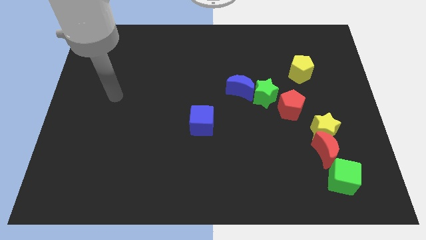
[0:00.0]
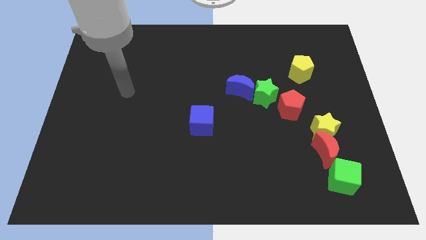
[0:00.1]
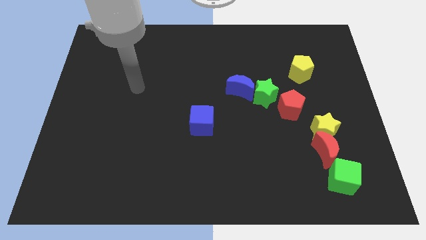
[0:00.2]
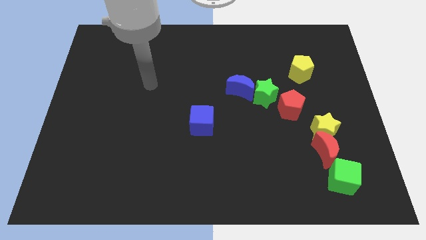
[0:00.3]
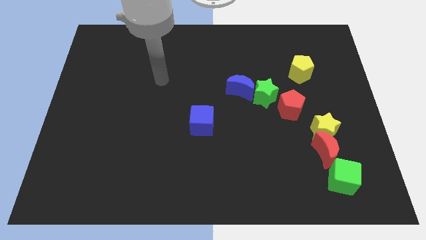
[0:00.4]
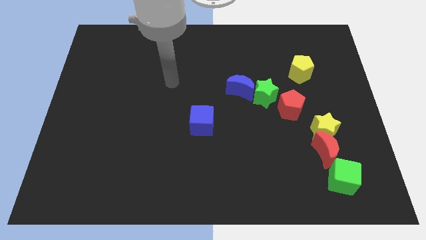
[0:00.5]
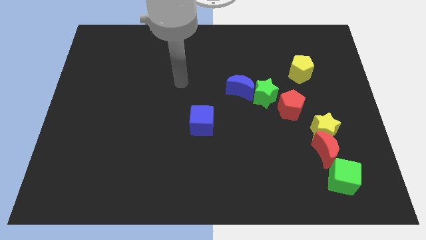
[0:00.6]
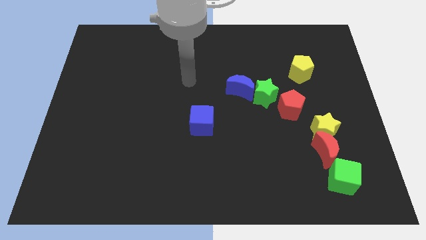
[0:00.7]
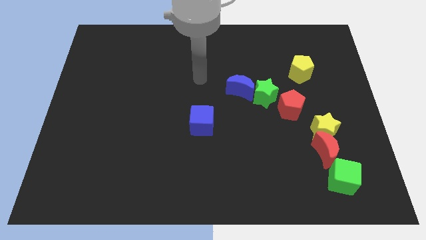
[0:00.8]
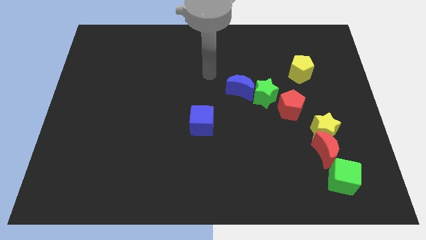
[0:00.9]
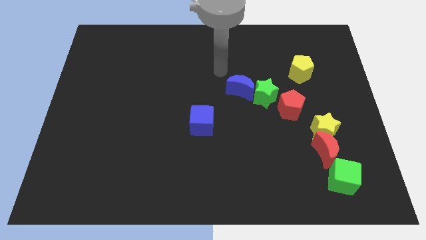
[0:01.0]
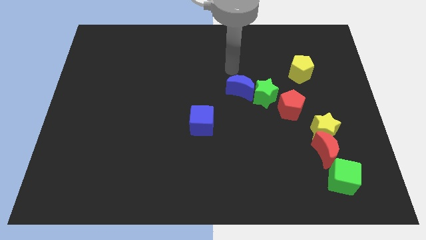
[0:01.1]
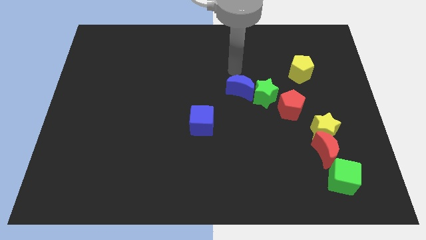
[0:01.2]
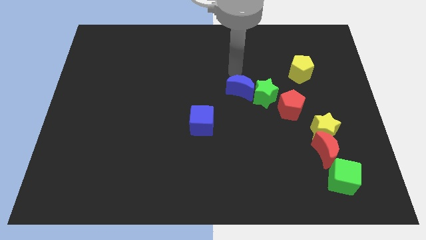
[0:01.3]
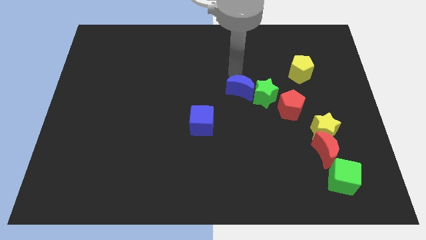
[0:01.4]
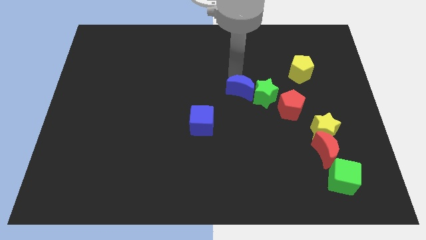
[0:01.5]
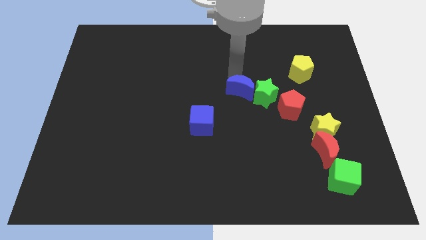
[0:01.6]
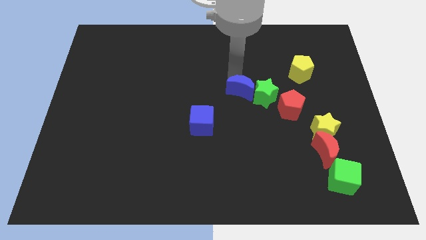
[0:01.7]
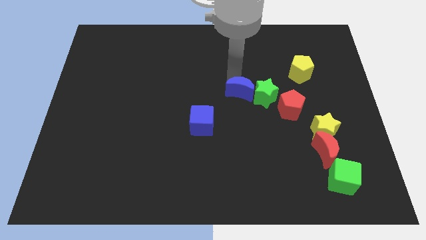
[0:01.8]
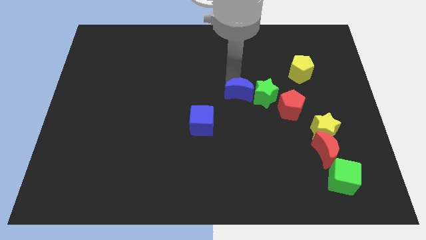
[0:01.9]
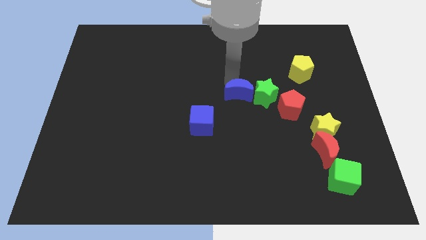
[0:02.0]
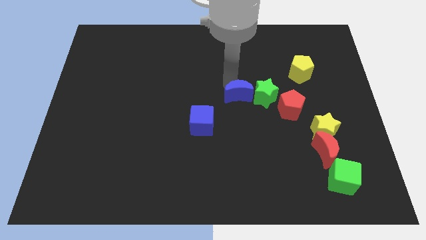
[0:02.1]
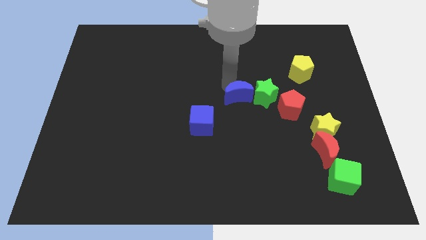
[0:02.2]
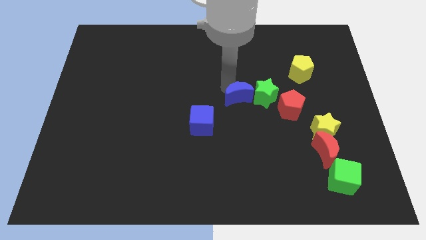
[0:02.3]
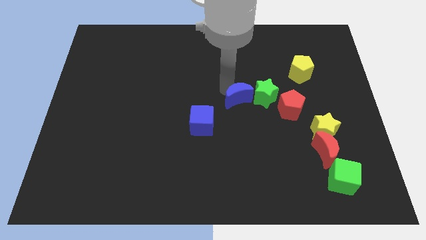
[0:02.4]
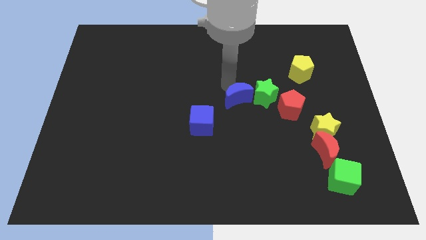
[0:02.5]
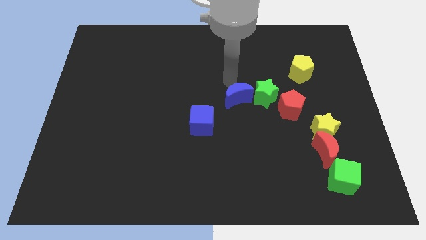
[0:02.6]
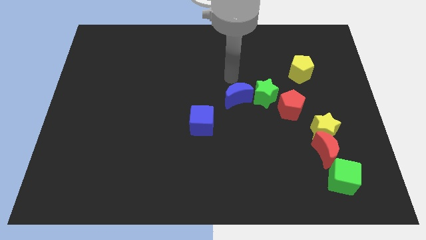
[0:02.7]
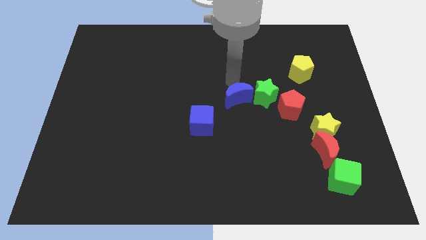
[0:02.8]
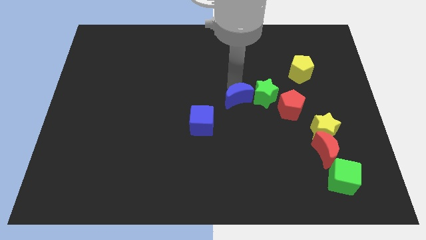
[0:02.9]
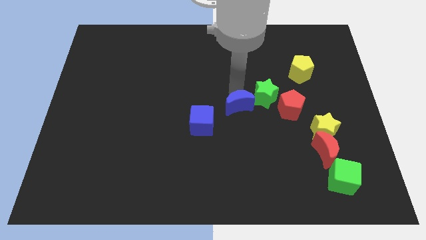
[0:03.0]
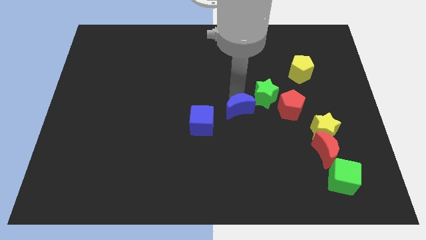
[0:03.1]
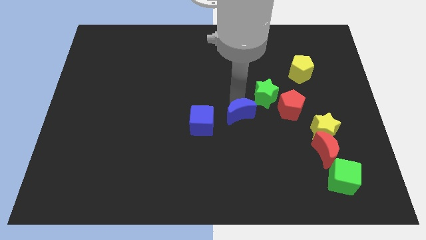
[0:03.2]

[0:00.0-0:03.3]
push the blue moon downwards slightly

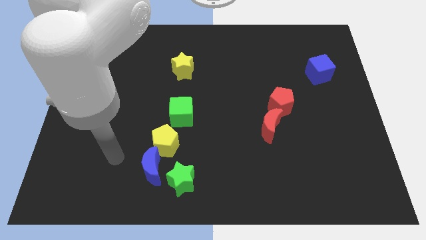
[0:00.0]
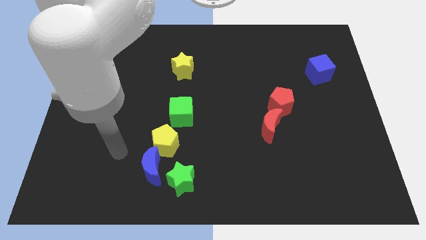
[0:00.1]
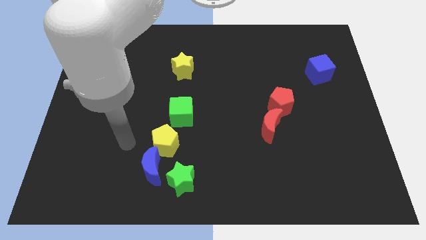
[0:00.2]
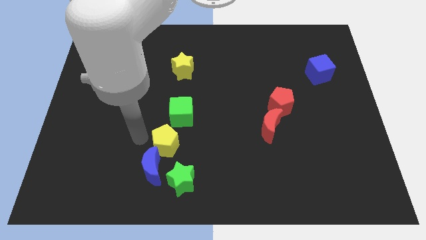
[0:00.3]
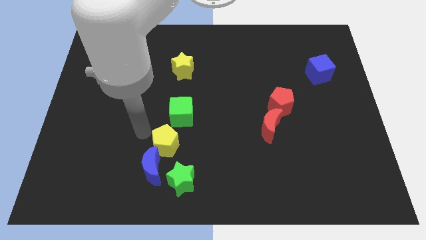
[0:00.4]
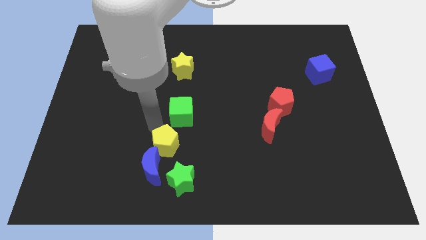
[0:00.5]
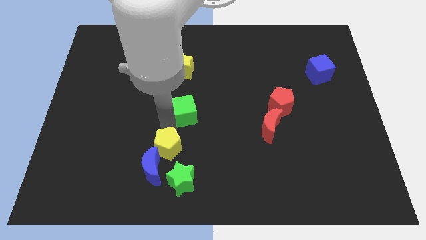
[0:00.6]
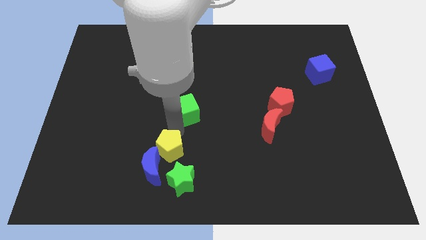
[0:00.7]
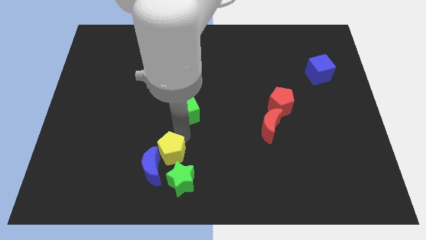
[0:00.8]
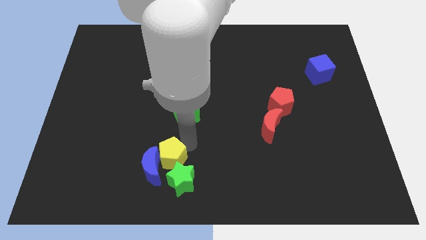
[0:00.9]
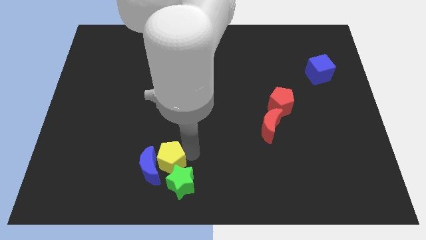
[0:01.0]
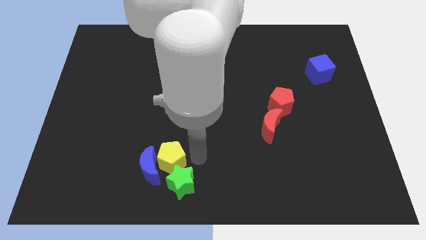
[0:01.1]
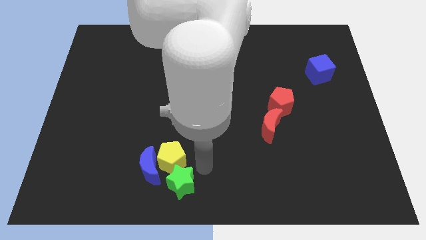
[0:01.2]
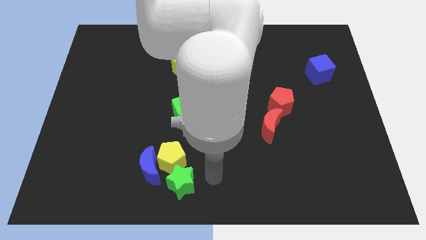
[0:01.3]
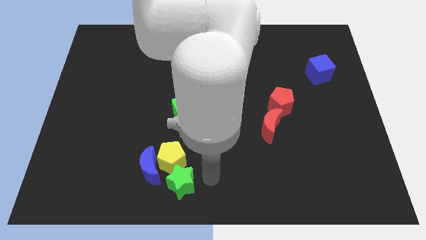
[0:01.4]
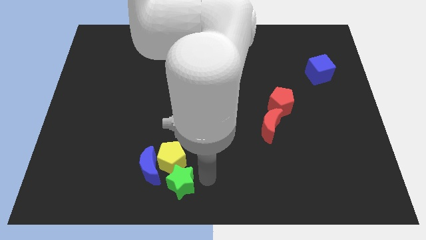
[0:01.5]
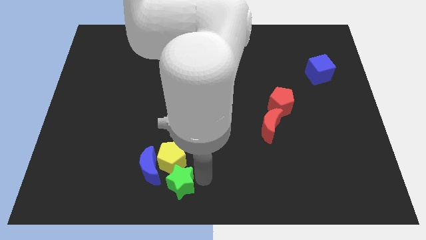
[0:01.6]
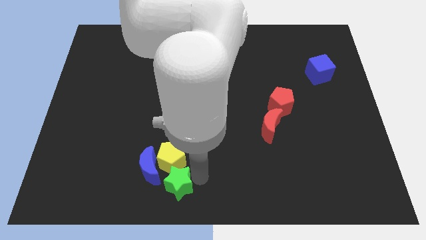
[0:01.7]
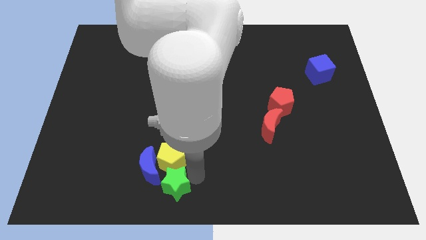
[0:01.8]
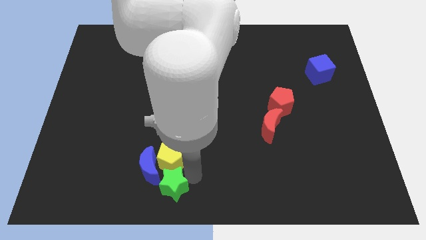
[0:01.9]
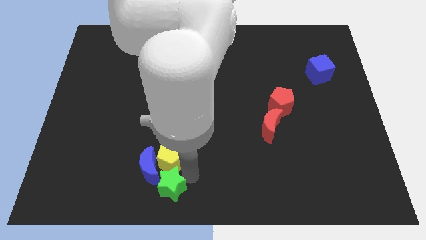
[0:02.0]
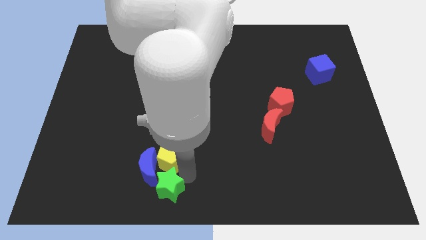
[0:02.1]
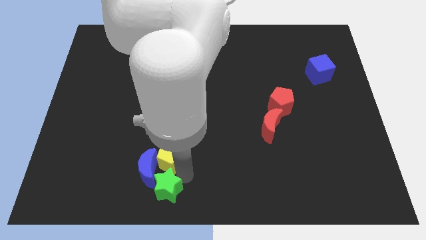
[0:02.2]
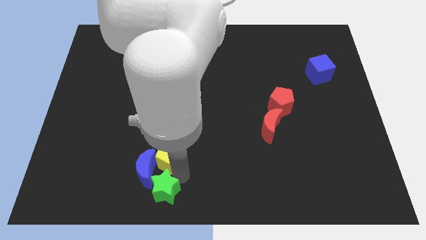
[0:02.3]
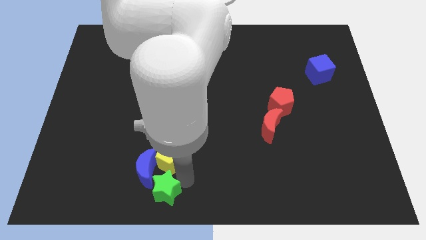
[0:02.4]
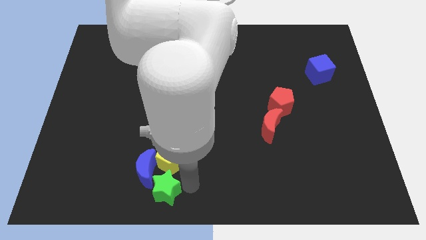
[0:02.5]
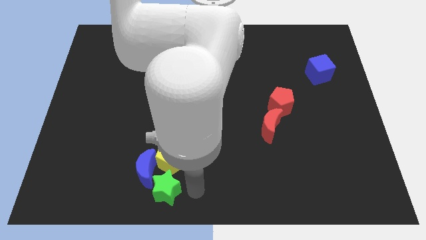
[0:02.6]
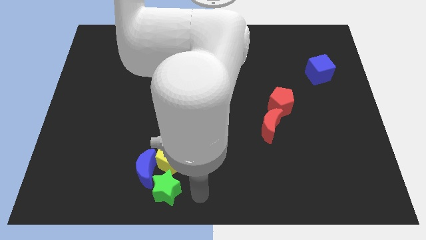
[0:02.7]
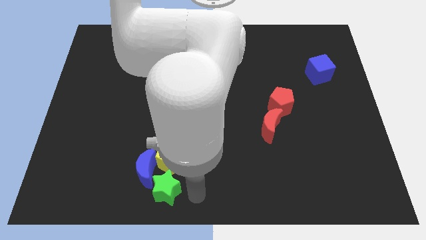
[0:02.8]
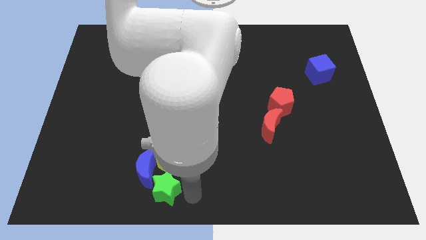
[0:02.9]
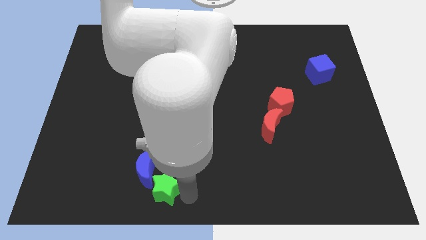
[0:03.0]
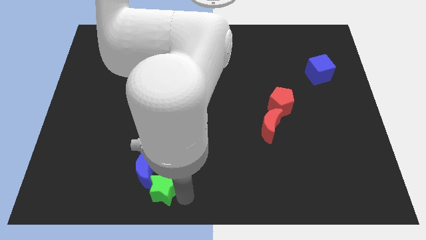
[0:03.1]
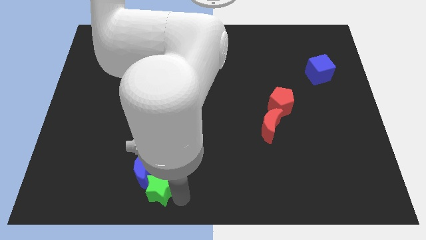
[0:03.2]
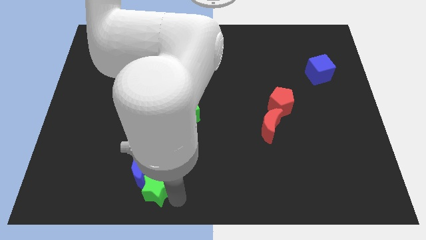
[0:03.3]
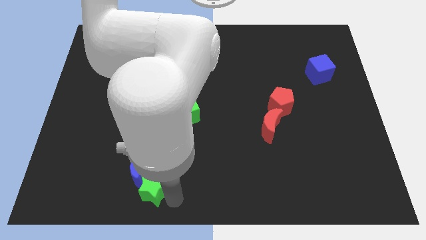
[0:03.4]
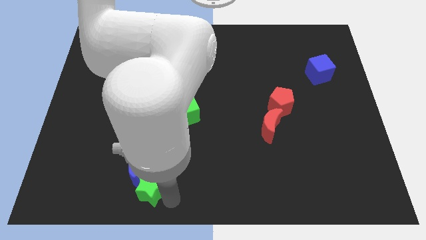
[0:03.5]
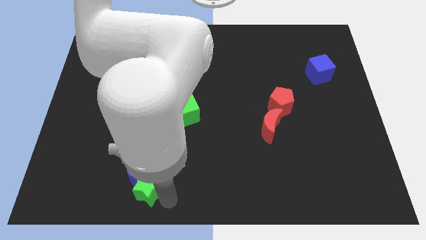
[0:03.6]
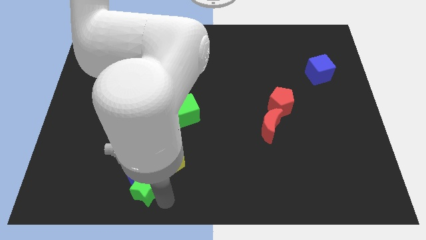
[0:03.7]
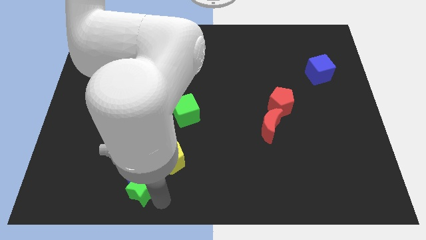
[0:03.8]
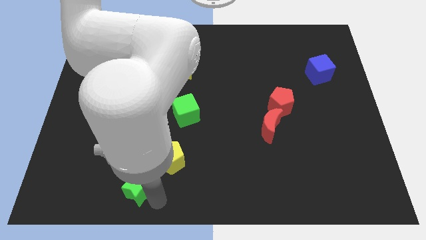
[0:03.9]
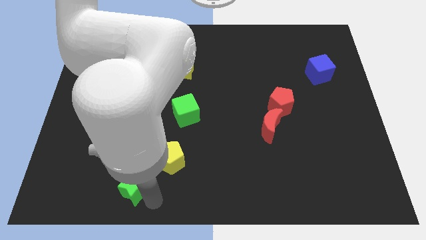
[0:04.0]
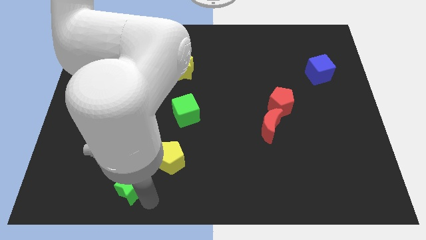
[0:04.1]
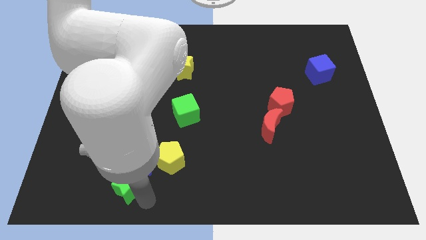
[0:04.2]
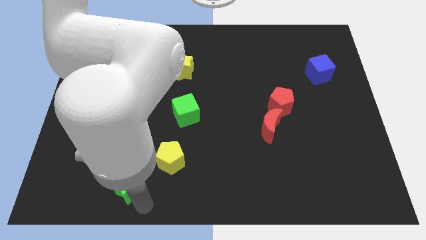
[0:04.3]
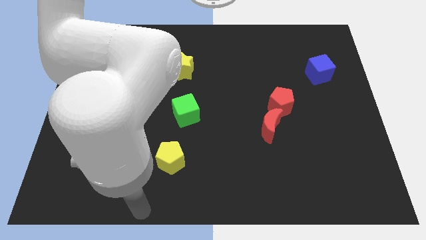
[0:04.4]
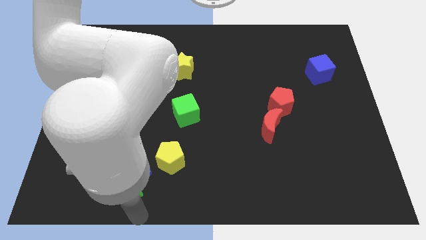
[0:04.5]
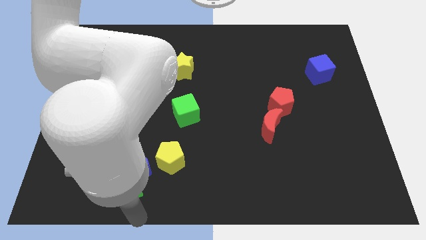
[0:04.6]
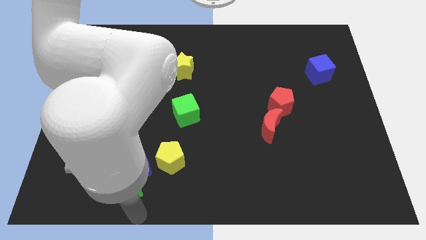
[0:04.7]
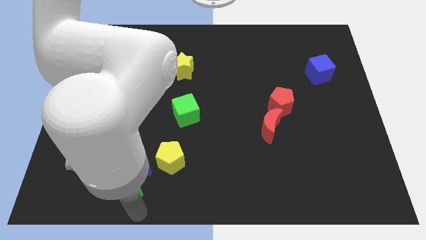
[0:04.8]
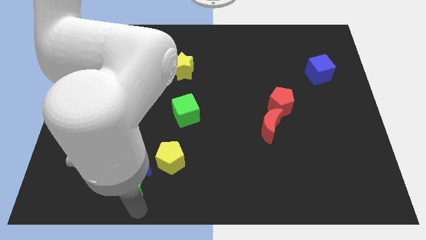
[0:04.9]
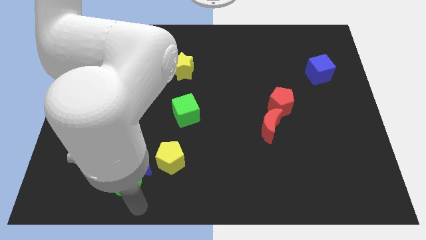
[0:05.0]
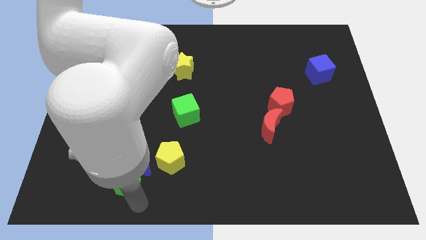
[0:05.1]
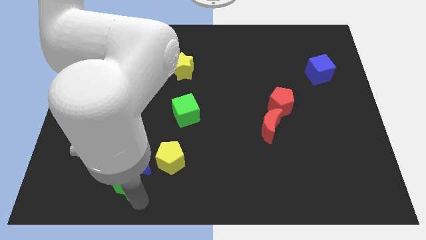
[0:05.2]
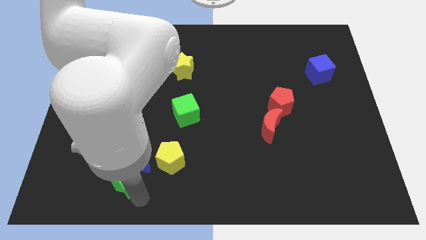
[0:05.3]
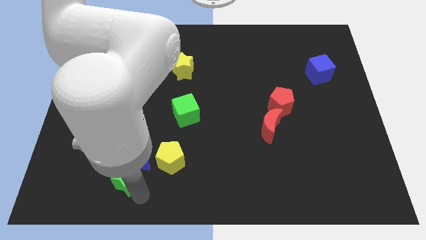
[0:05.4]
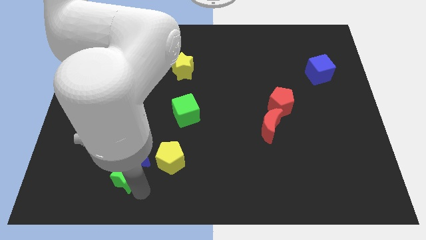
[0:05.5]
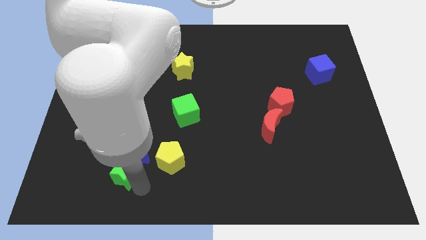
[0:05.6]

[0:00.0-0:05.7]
slightly slide the green star diagonally up and left
